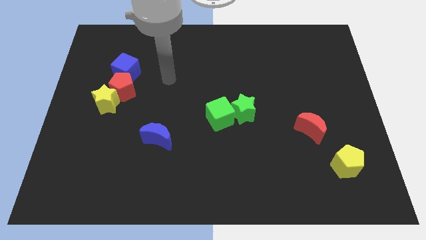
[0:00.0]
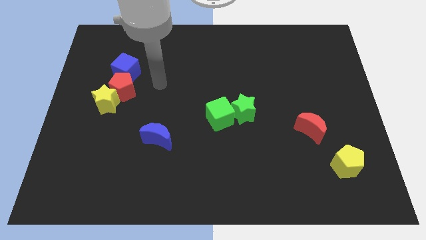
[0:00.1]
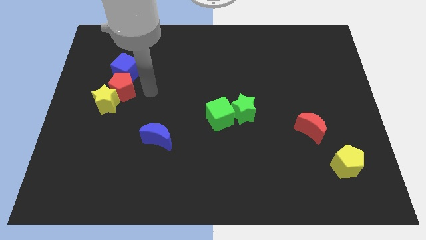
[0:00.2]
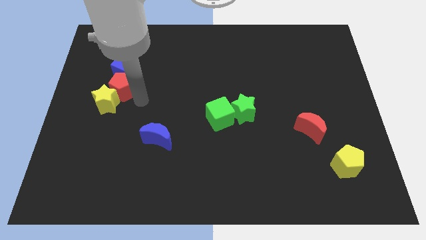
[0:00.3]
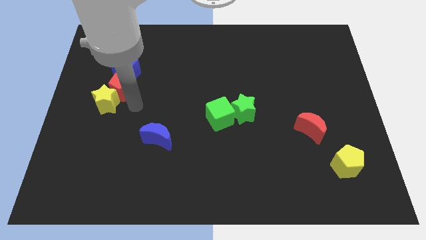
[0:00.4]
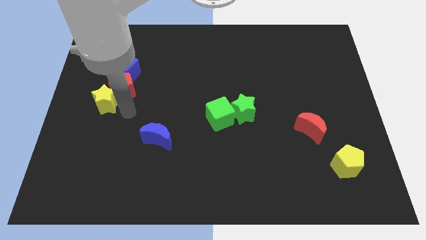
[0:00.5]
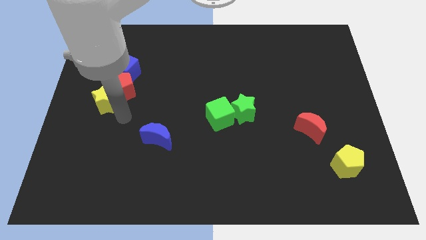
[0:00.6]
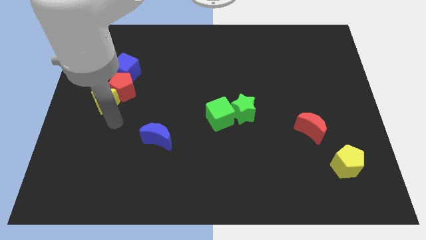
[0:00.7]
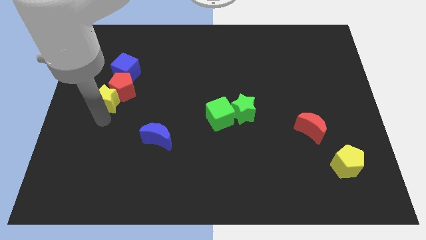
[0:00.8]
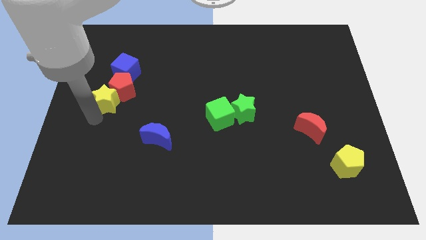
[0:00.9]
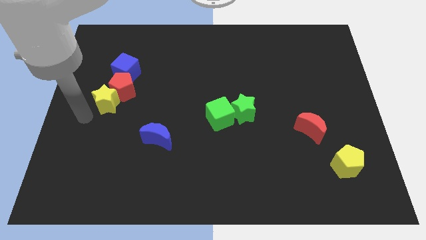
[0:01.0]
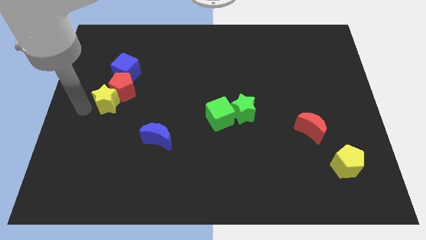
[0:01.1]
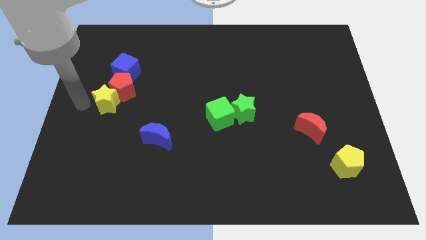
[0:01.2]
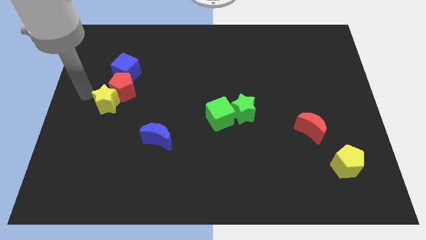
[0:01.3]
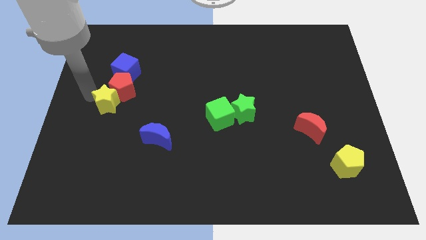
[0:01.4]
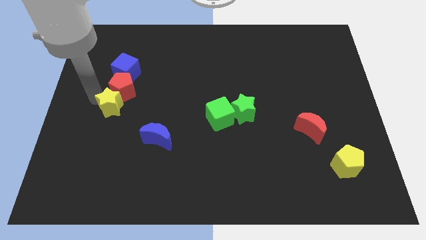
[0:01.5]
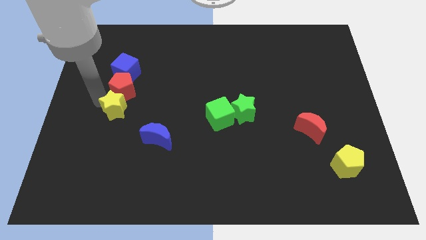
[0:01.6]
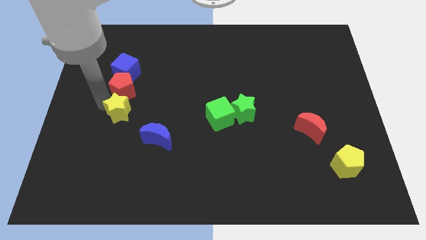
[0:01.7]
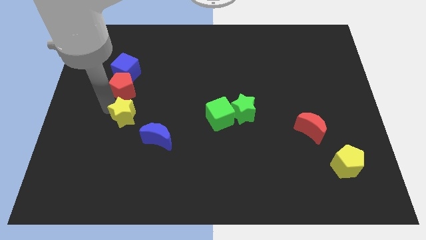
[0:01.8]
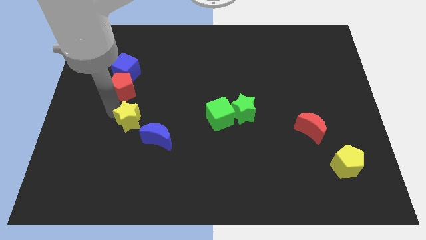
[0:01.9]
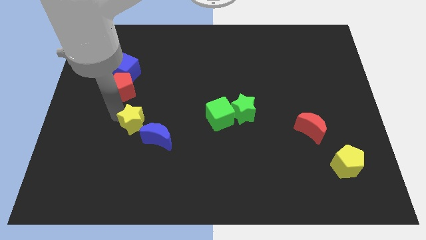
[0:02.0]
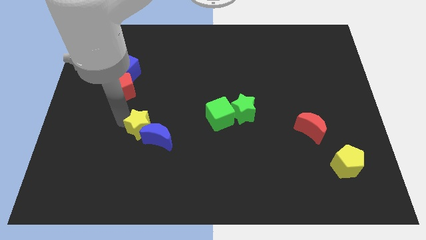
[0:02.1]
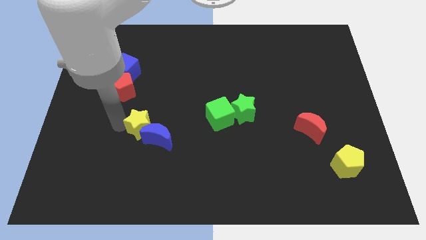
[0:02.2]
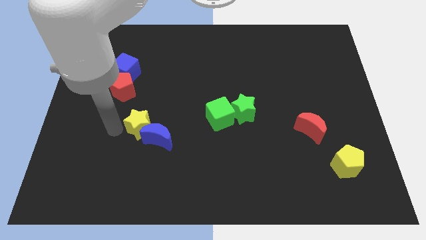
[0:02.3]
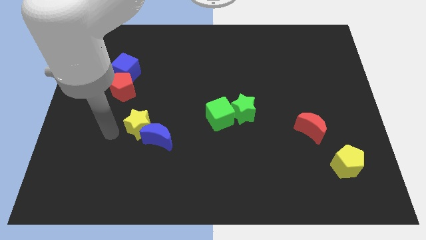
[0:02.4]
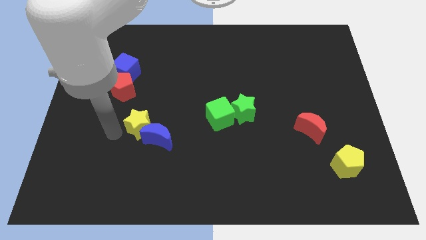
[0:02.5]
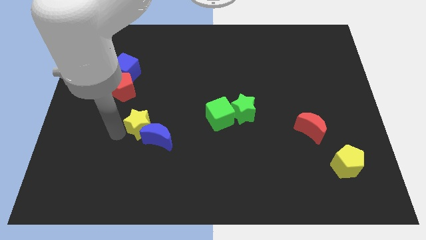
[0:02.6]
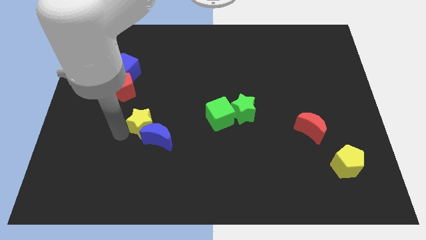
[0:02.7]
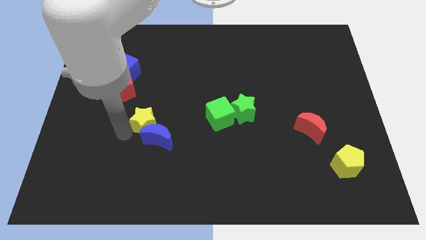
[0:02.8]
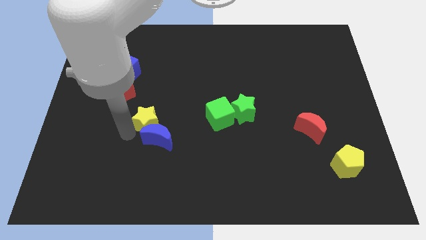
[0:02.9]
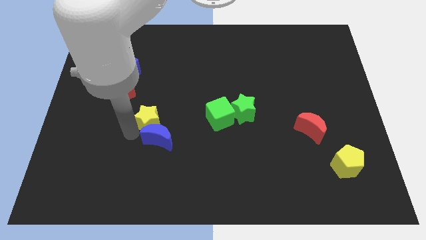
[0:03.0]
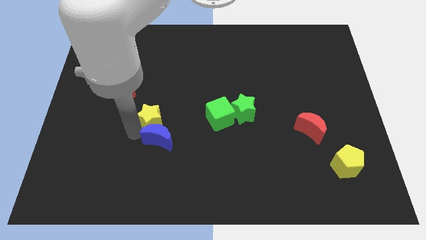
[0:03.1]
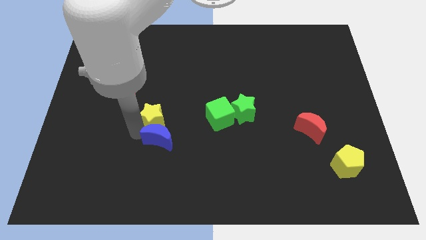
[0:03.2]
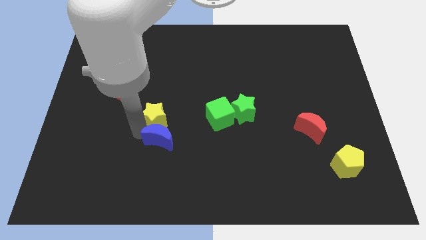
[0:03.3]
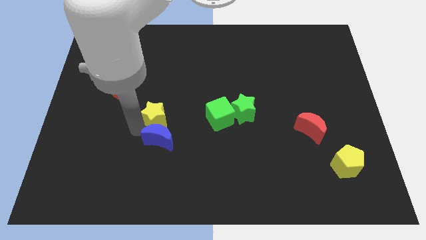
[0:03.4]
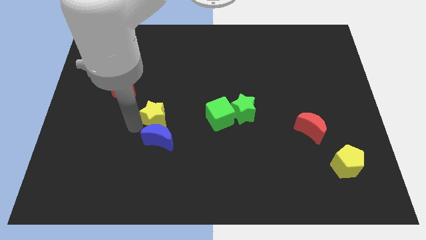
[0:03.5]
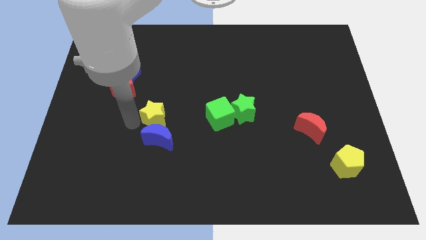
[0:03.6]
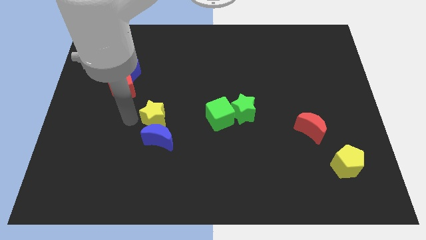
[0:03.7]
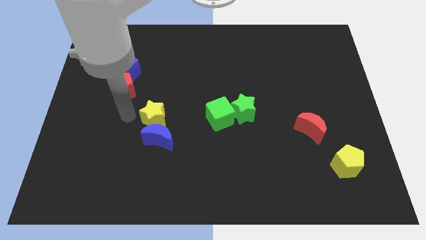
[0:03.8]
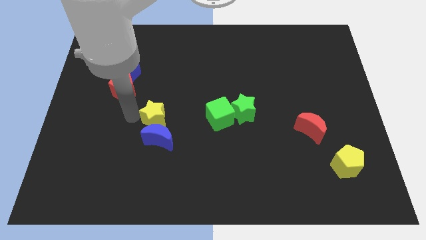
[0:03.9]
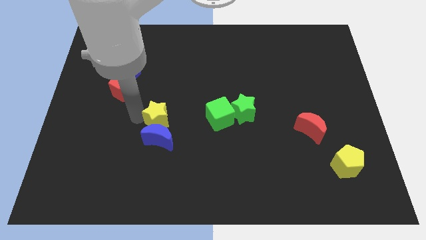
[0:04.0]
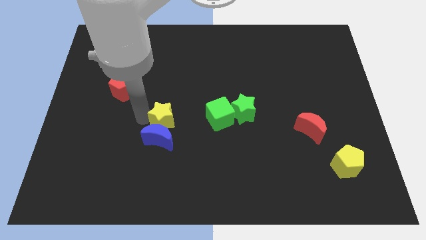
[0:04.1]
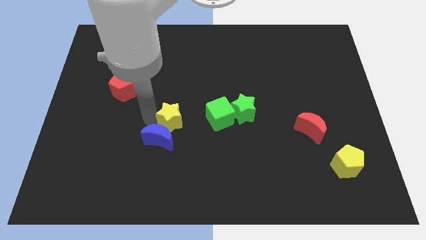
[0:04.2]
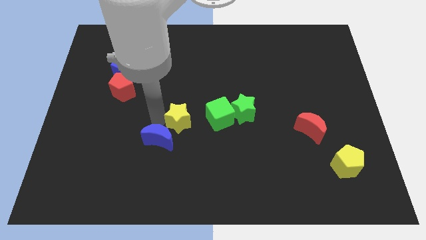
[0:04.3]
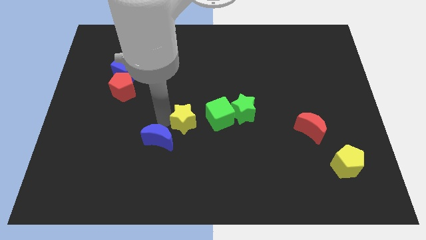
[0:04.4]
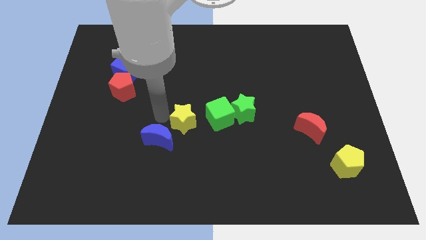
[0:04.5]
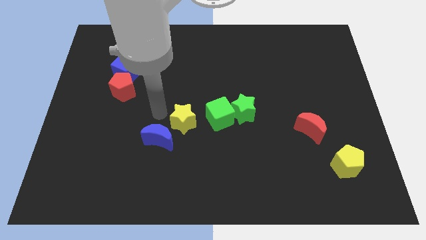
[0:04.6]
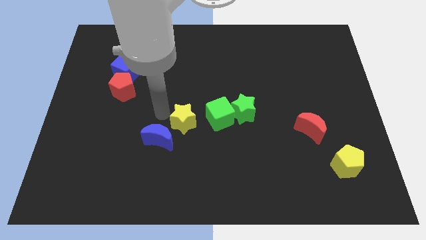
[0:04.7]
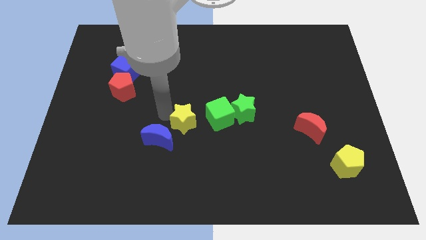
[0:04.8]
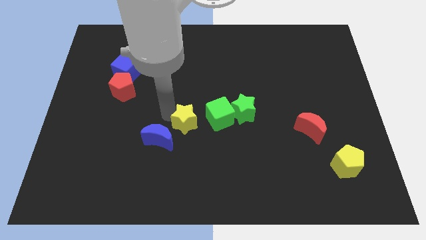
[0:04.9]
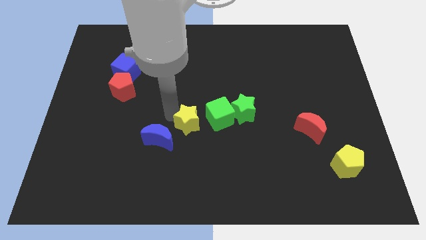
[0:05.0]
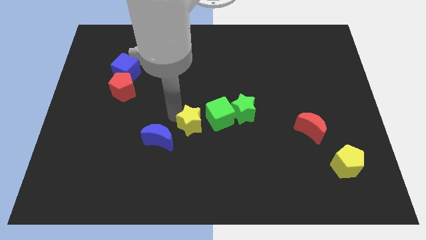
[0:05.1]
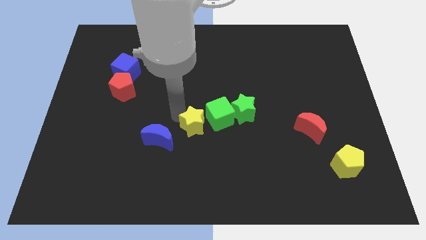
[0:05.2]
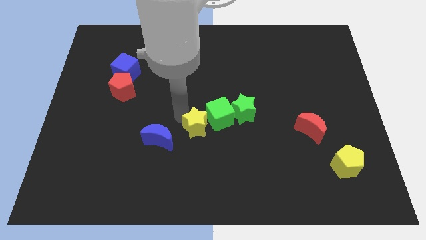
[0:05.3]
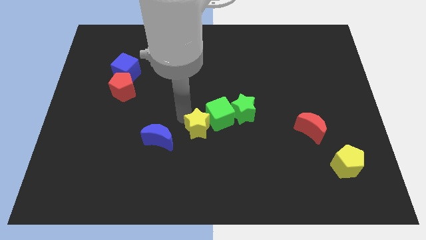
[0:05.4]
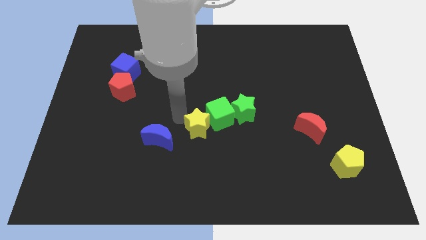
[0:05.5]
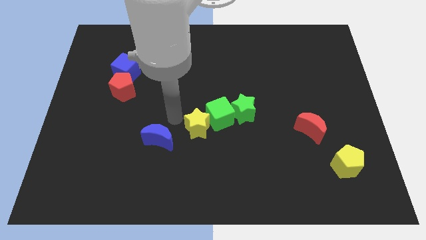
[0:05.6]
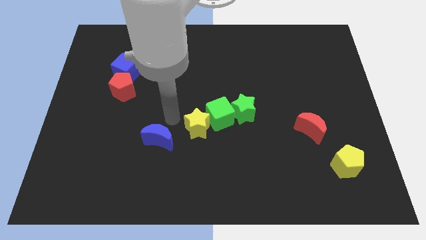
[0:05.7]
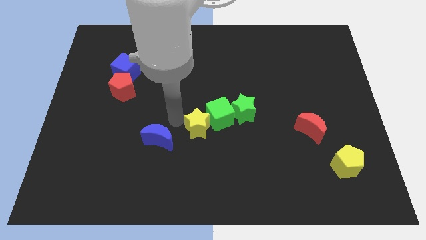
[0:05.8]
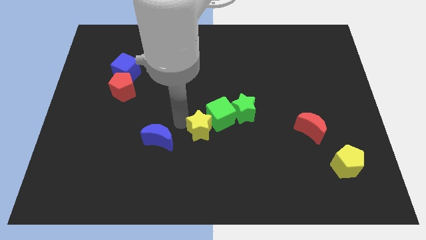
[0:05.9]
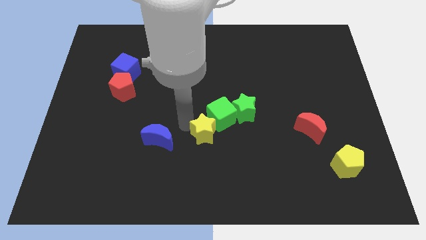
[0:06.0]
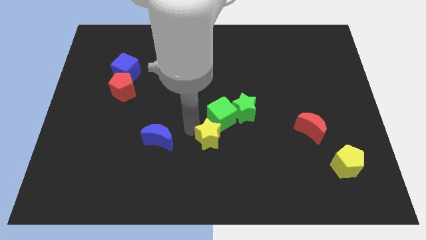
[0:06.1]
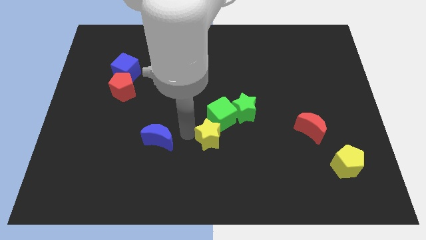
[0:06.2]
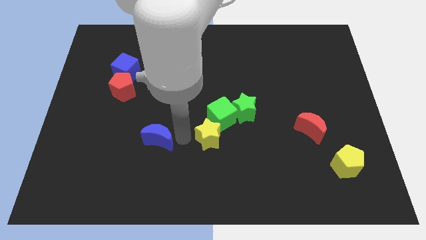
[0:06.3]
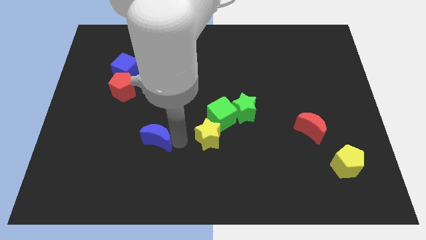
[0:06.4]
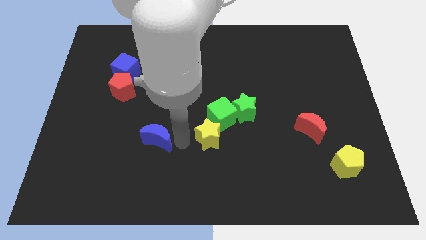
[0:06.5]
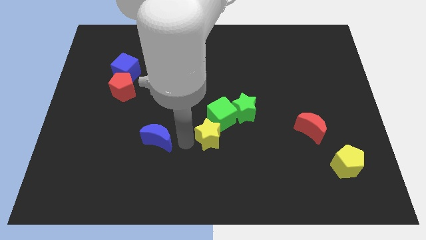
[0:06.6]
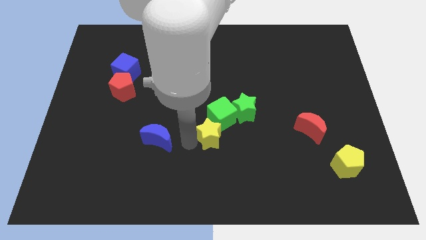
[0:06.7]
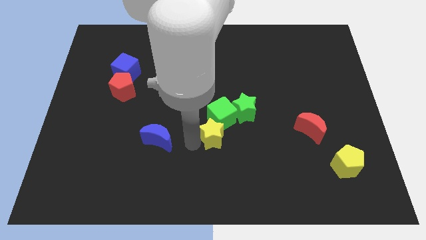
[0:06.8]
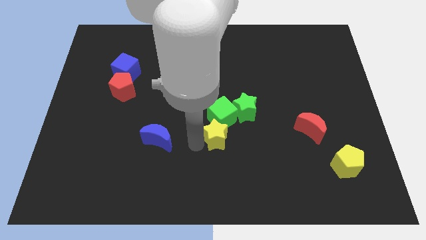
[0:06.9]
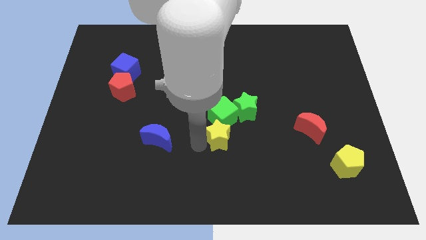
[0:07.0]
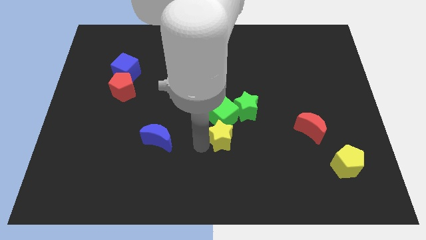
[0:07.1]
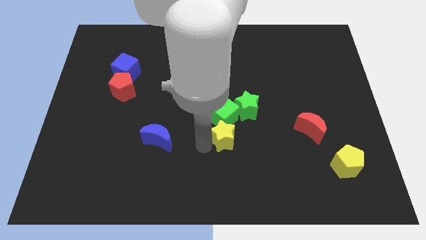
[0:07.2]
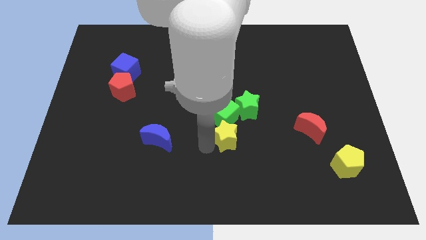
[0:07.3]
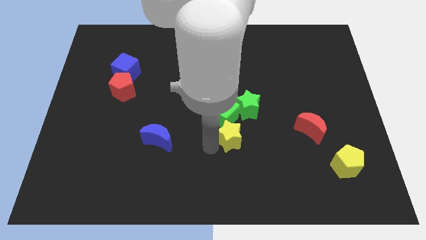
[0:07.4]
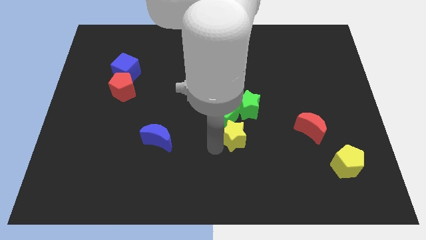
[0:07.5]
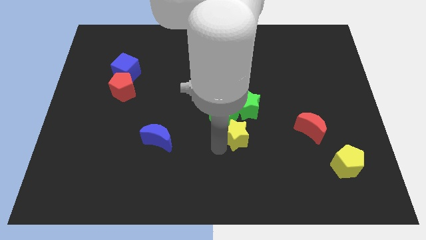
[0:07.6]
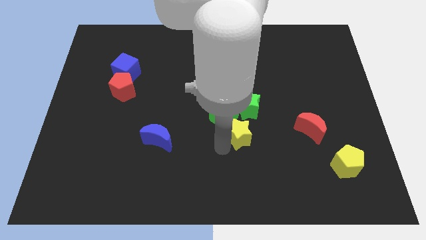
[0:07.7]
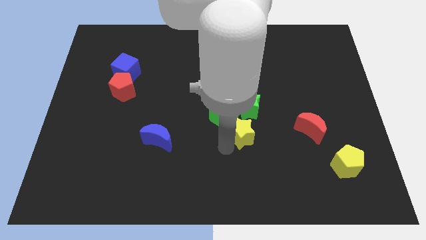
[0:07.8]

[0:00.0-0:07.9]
move the yellow star to the left of the red moon
